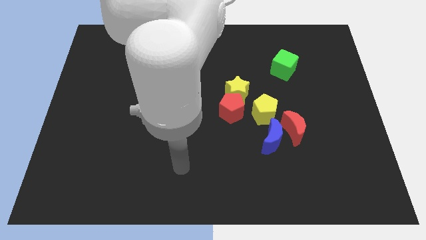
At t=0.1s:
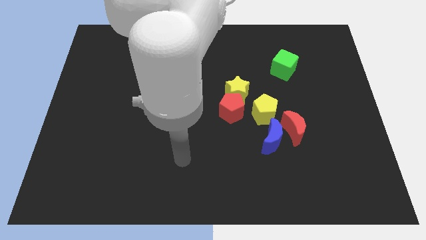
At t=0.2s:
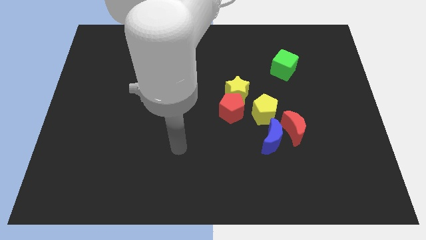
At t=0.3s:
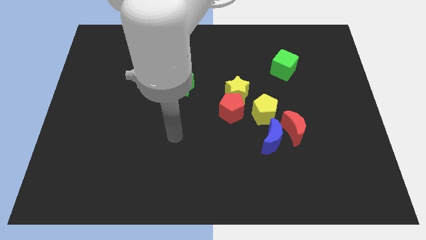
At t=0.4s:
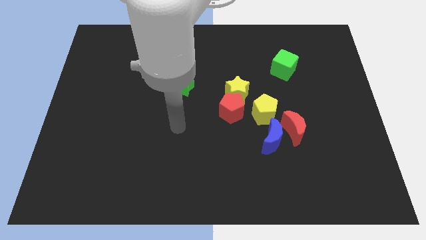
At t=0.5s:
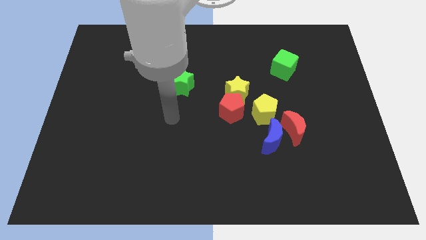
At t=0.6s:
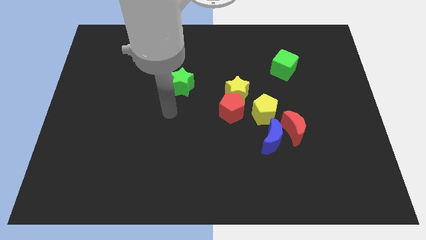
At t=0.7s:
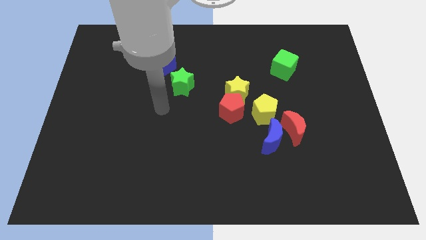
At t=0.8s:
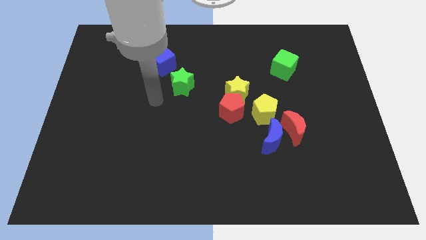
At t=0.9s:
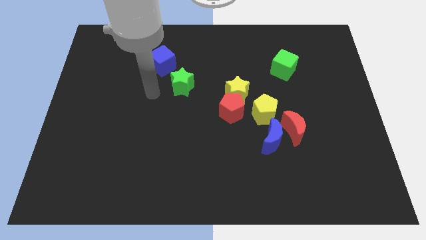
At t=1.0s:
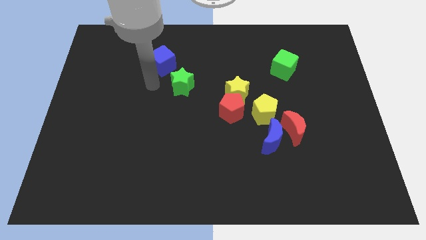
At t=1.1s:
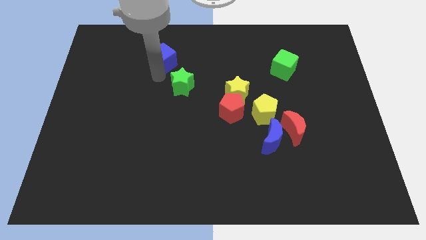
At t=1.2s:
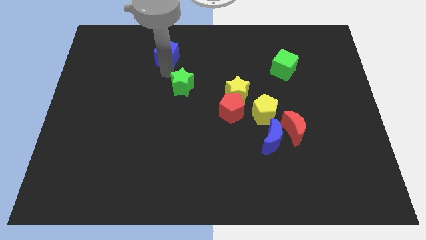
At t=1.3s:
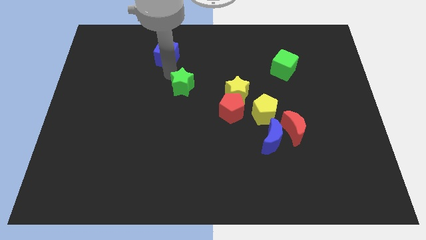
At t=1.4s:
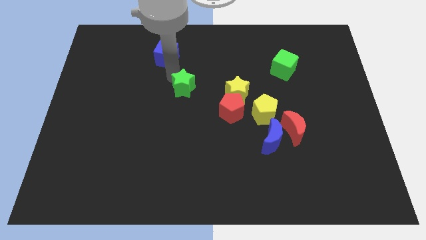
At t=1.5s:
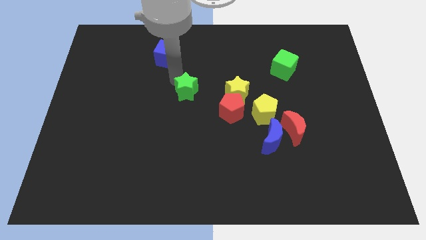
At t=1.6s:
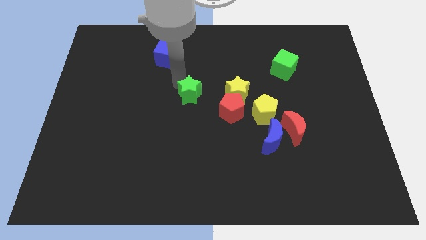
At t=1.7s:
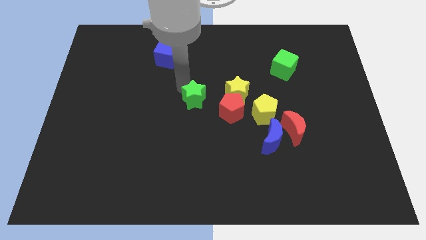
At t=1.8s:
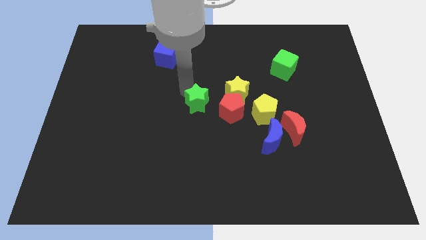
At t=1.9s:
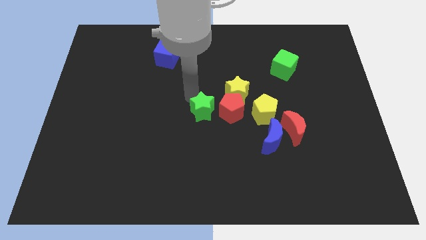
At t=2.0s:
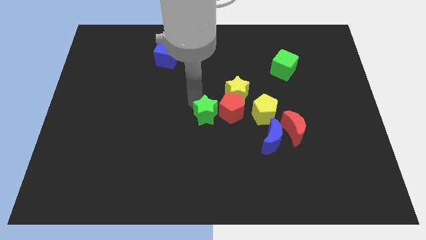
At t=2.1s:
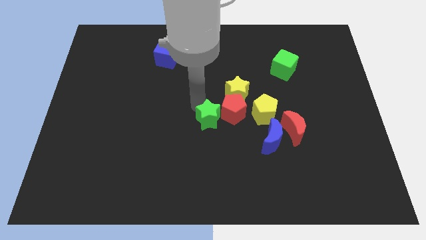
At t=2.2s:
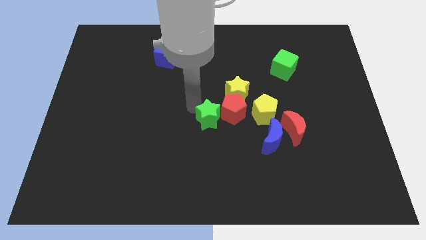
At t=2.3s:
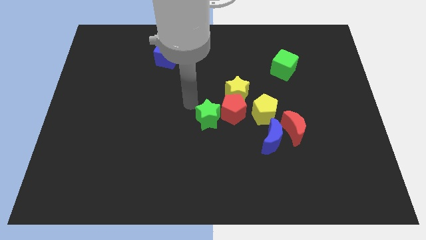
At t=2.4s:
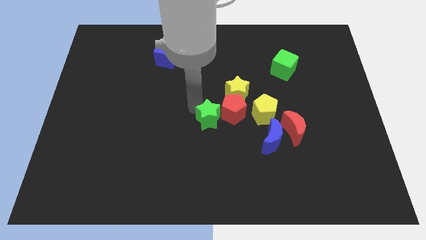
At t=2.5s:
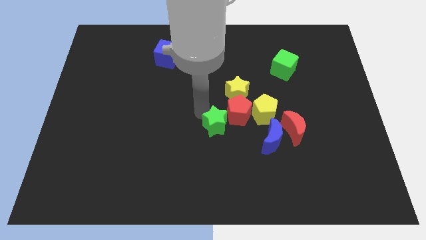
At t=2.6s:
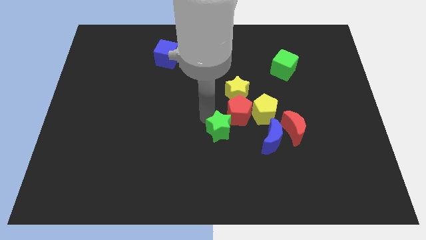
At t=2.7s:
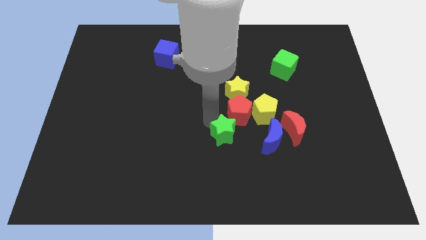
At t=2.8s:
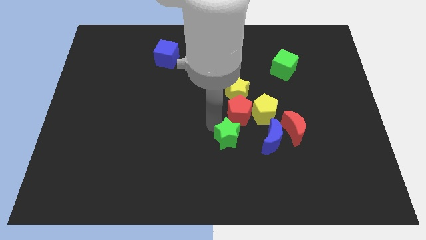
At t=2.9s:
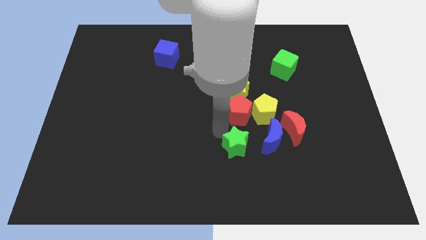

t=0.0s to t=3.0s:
slide the green star diagonally downwards and to the right

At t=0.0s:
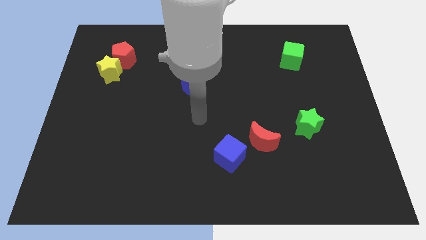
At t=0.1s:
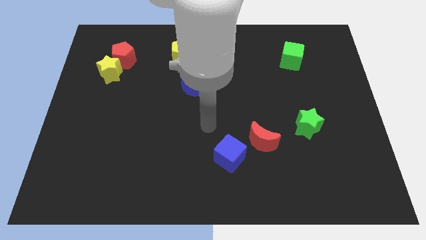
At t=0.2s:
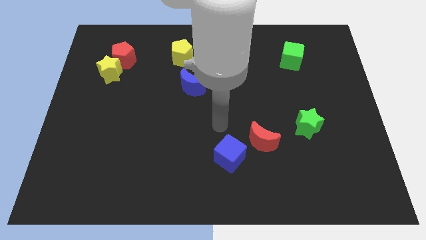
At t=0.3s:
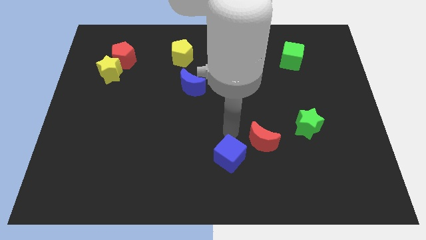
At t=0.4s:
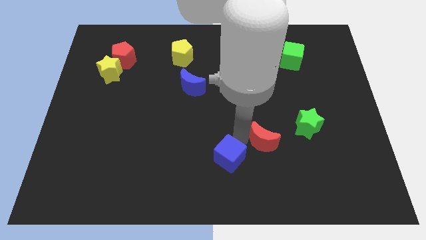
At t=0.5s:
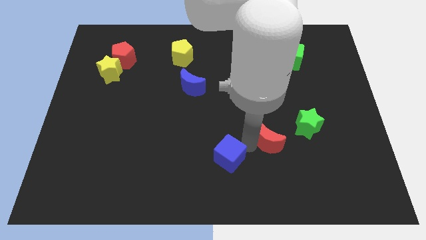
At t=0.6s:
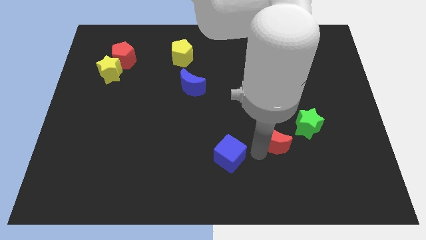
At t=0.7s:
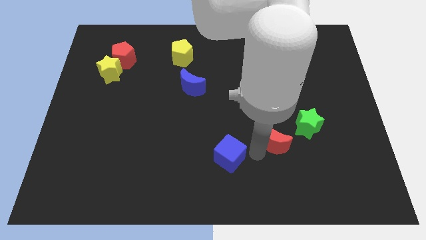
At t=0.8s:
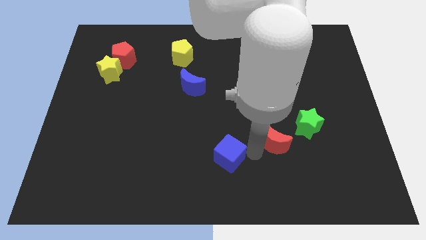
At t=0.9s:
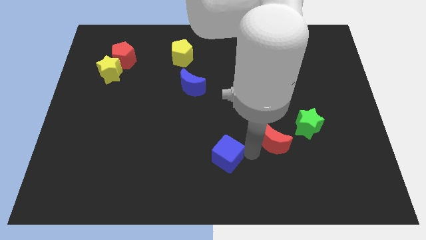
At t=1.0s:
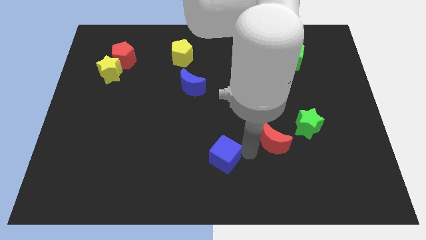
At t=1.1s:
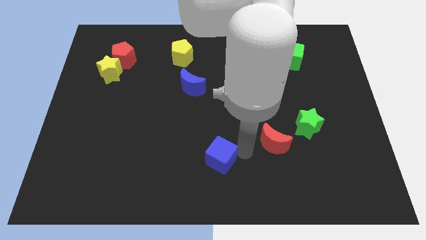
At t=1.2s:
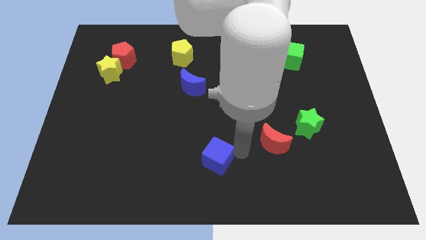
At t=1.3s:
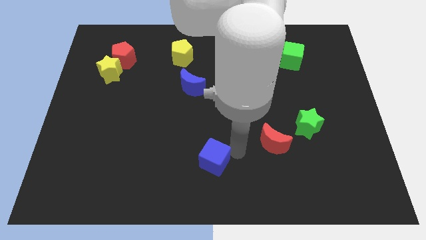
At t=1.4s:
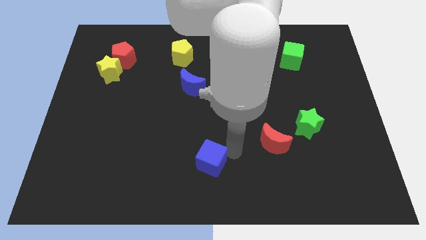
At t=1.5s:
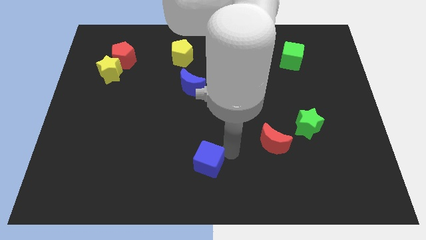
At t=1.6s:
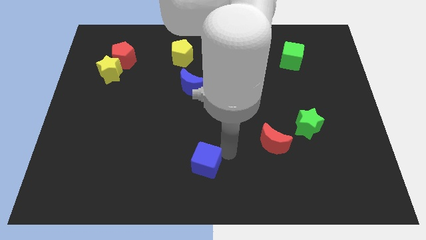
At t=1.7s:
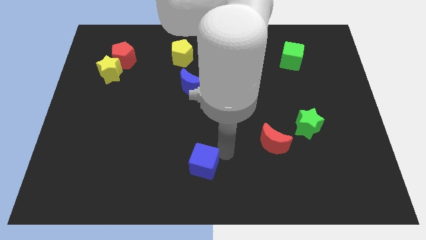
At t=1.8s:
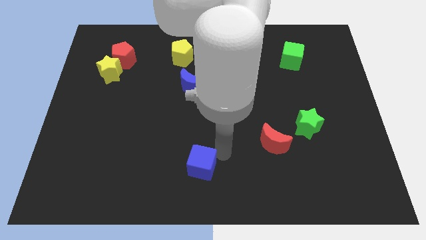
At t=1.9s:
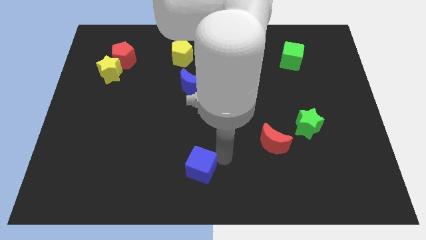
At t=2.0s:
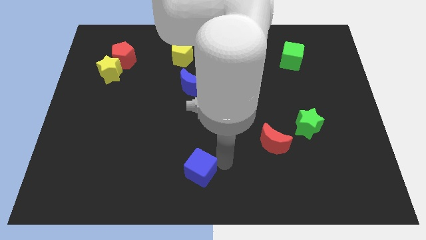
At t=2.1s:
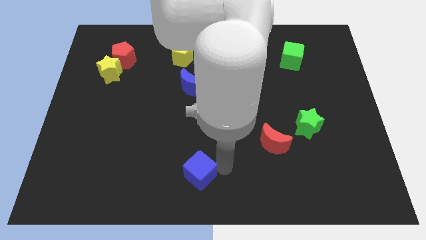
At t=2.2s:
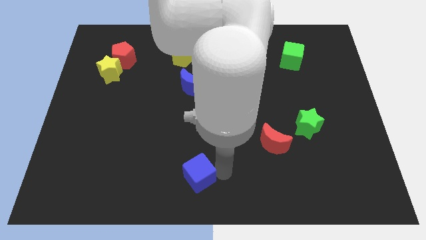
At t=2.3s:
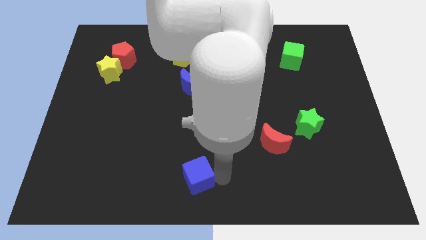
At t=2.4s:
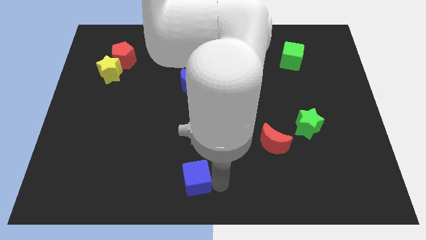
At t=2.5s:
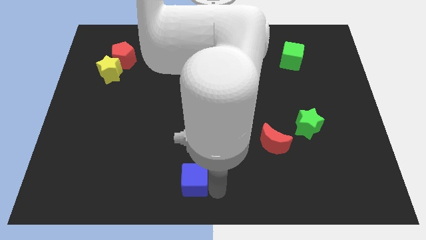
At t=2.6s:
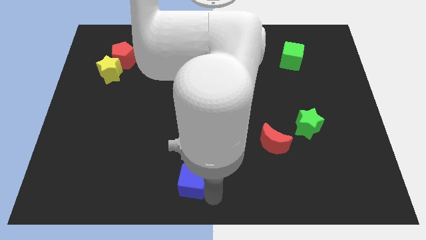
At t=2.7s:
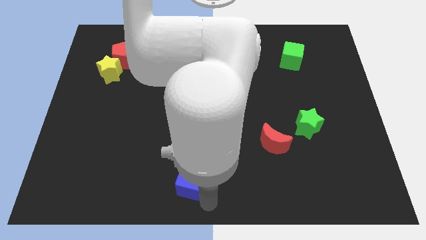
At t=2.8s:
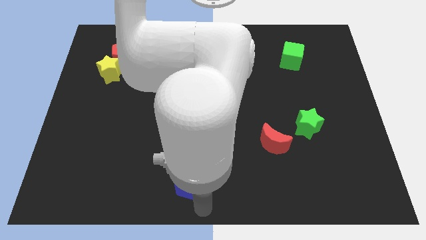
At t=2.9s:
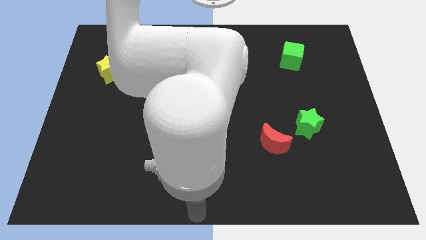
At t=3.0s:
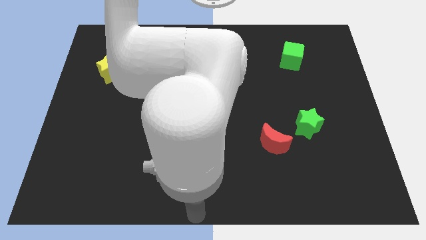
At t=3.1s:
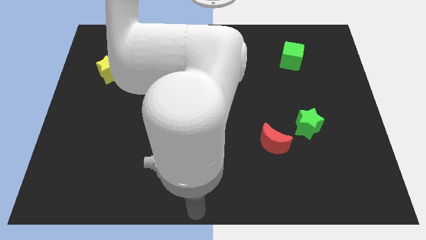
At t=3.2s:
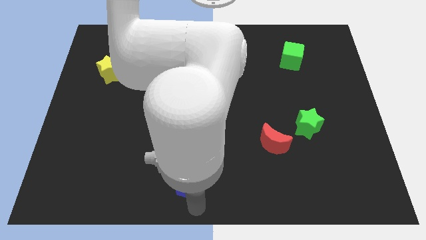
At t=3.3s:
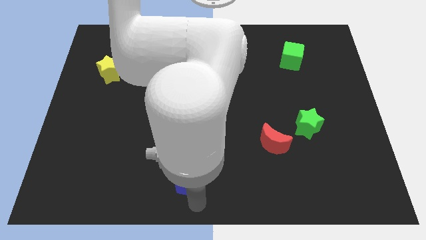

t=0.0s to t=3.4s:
slightly slide the blue cube to the left

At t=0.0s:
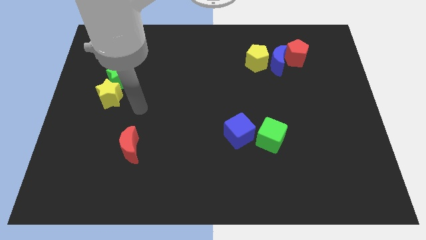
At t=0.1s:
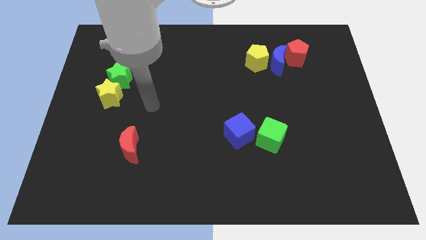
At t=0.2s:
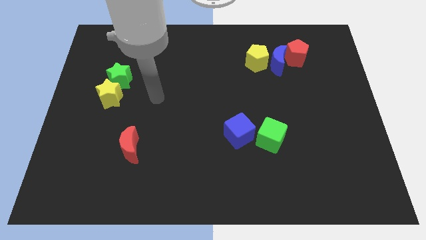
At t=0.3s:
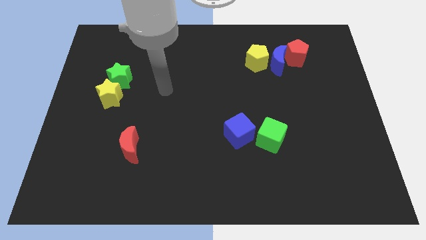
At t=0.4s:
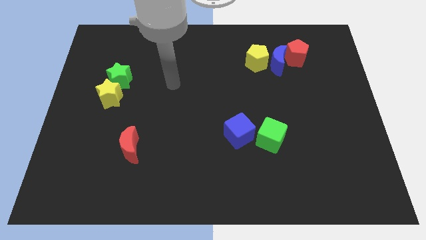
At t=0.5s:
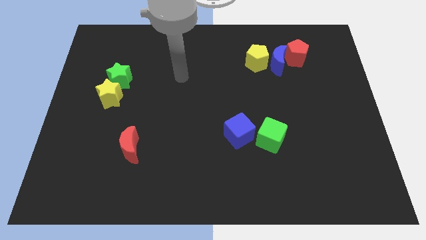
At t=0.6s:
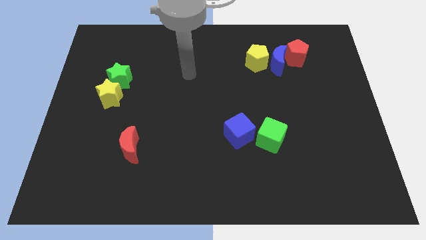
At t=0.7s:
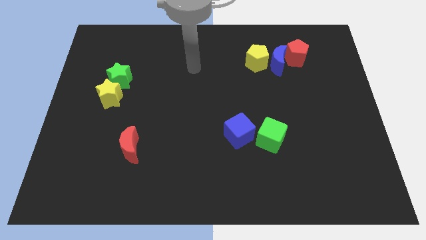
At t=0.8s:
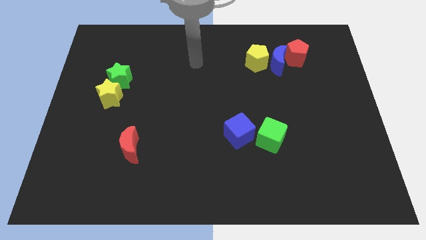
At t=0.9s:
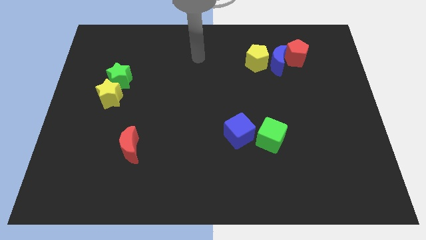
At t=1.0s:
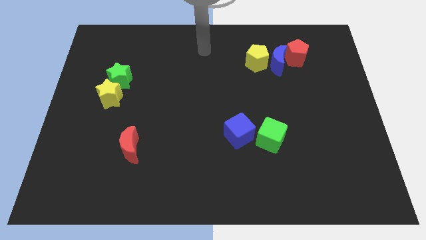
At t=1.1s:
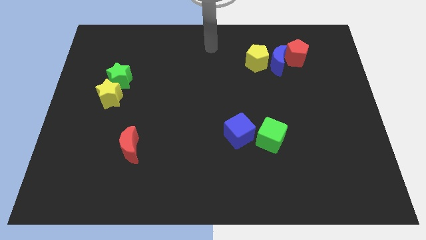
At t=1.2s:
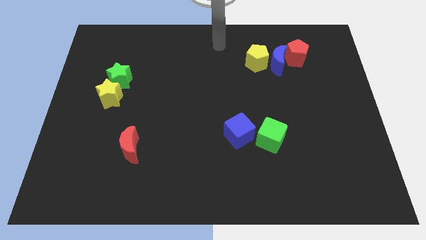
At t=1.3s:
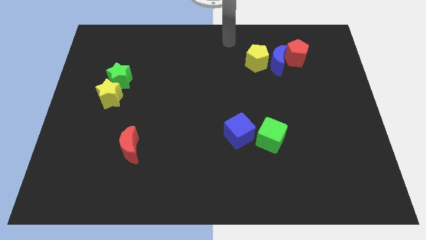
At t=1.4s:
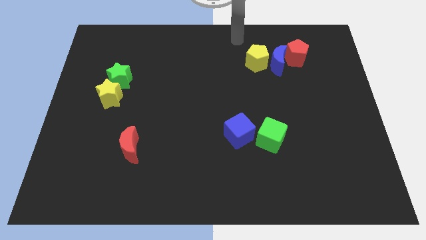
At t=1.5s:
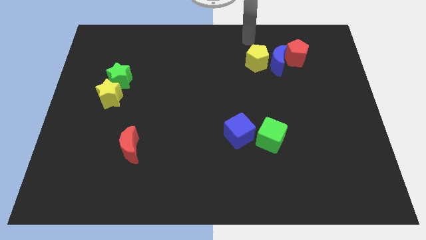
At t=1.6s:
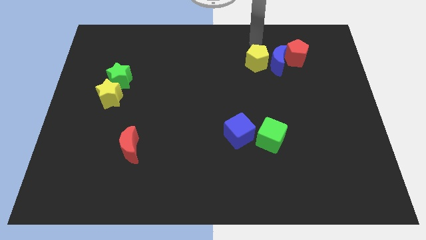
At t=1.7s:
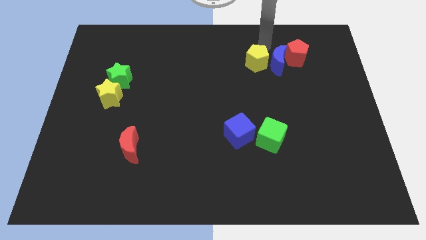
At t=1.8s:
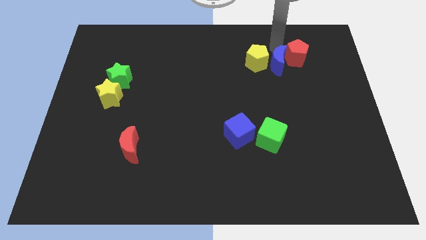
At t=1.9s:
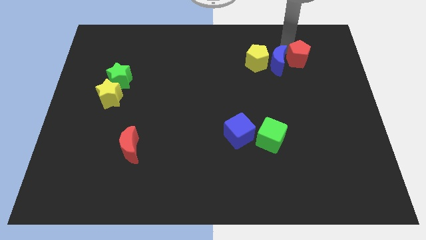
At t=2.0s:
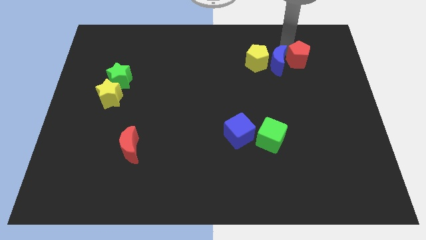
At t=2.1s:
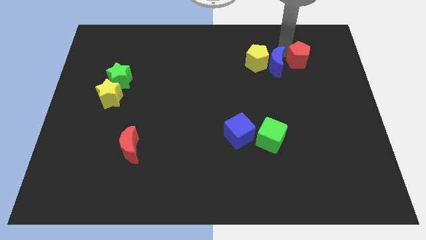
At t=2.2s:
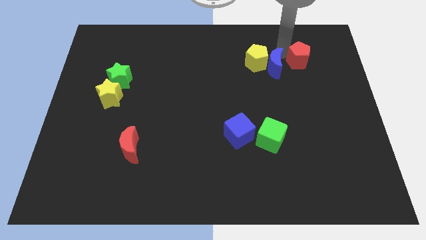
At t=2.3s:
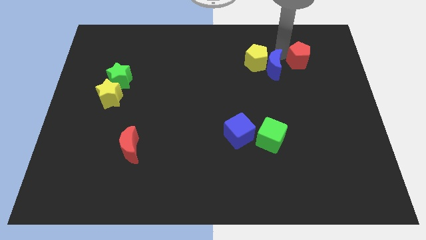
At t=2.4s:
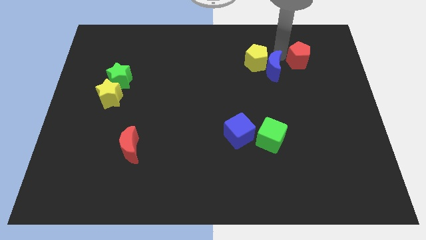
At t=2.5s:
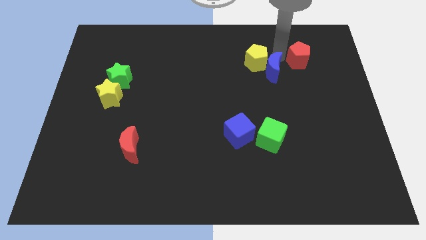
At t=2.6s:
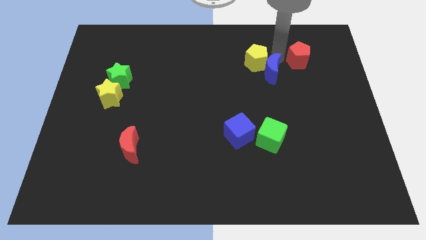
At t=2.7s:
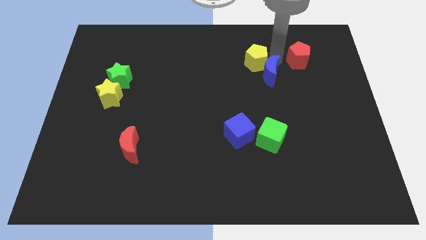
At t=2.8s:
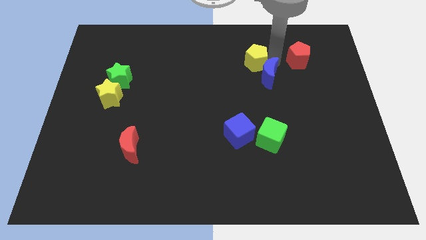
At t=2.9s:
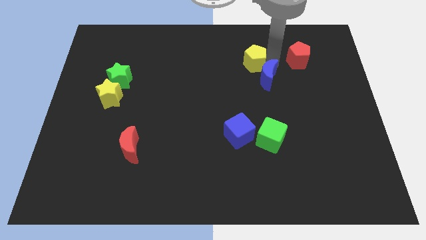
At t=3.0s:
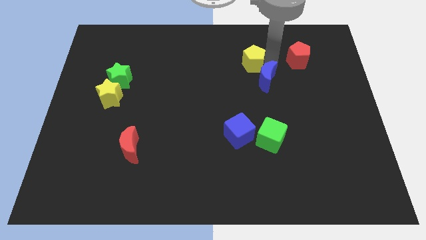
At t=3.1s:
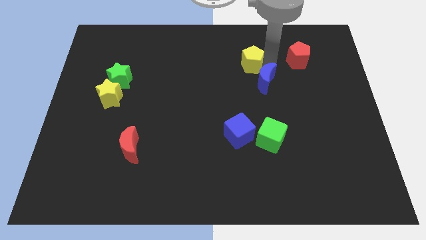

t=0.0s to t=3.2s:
move the blue moon a bit down and then left
